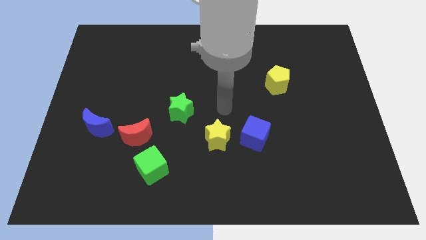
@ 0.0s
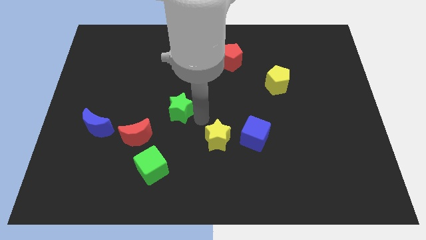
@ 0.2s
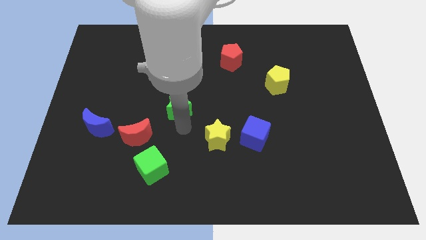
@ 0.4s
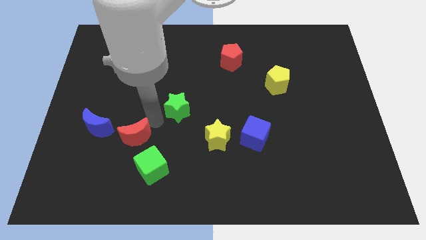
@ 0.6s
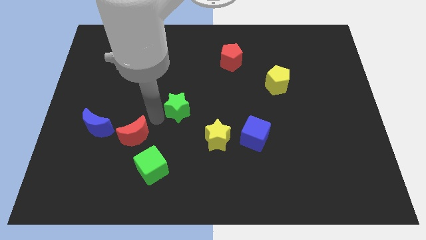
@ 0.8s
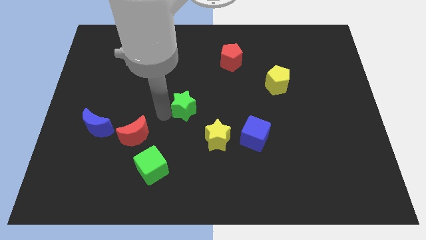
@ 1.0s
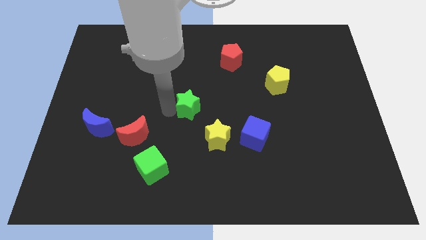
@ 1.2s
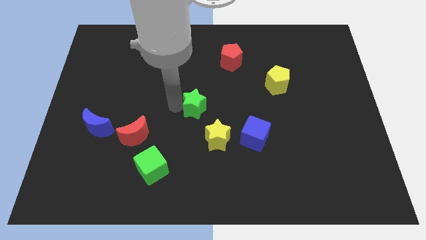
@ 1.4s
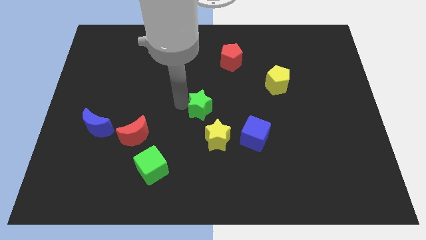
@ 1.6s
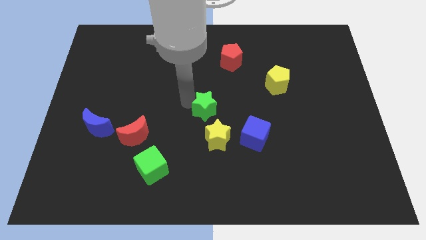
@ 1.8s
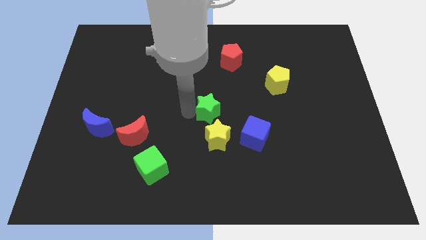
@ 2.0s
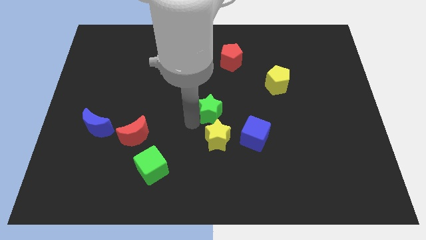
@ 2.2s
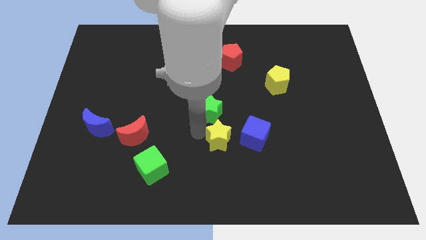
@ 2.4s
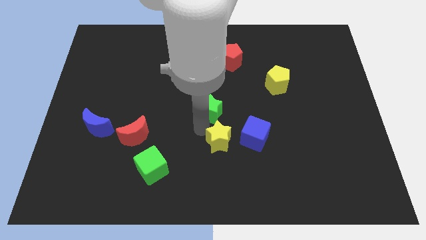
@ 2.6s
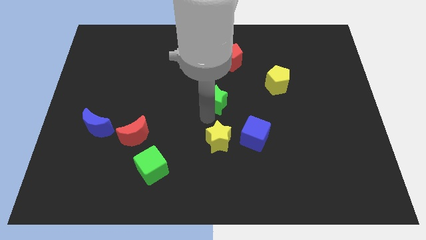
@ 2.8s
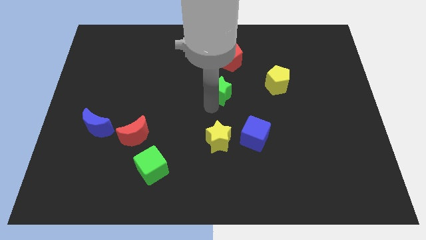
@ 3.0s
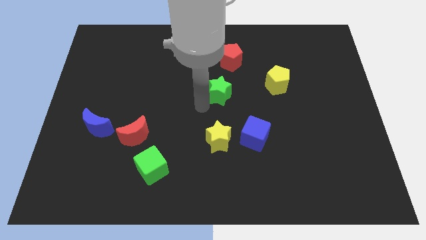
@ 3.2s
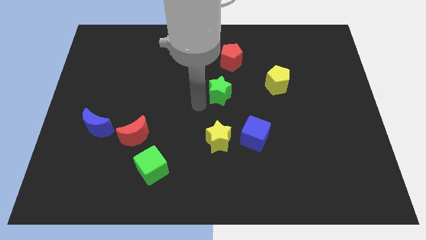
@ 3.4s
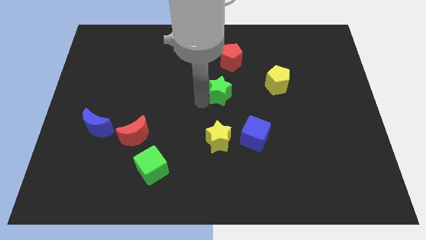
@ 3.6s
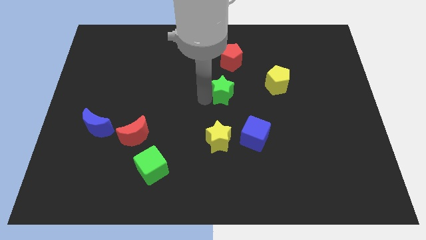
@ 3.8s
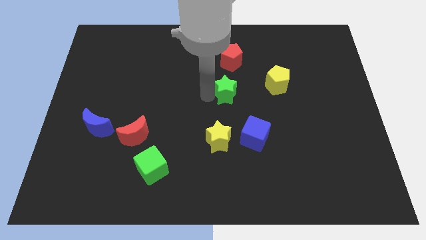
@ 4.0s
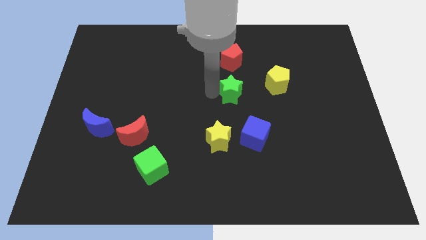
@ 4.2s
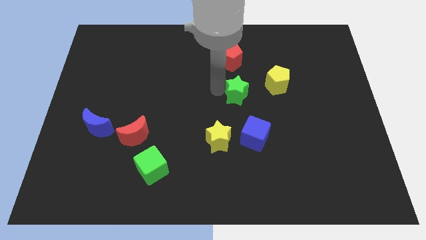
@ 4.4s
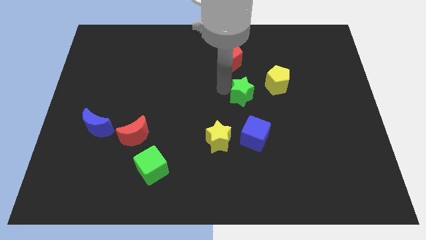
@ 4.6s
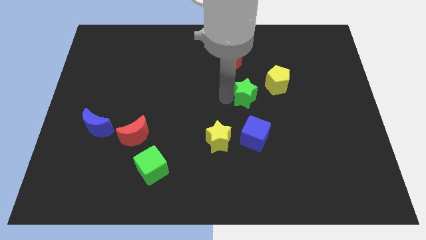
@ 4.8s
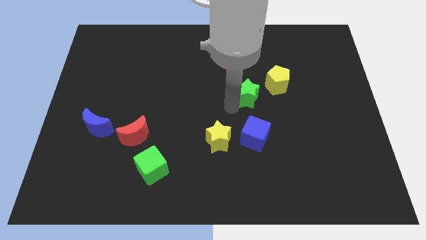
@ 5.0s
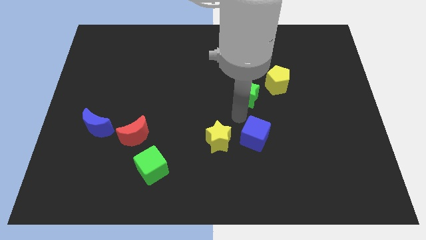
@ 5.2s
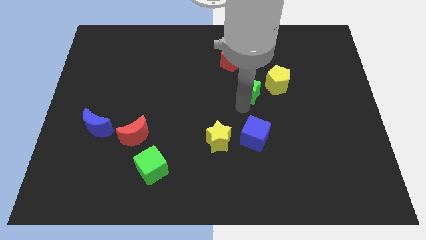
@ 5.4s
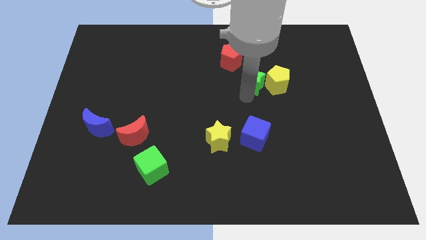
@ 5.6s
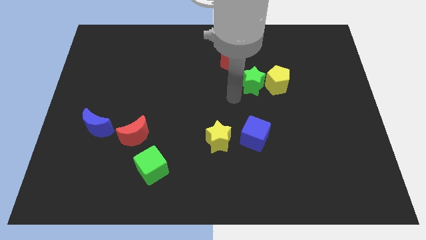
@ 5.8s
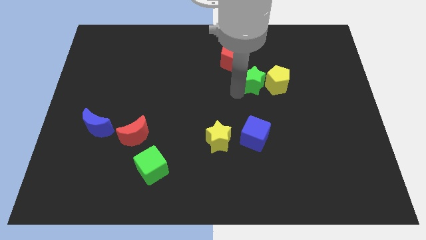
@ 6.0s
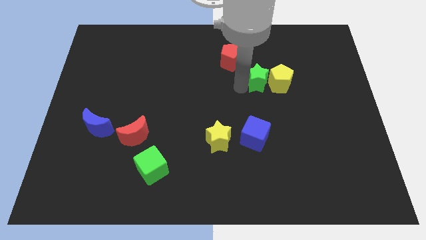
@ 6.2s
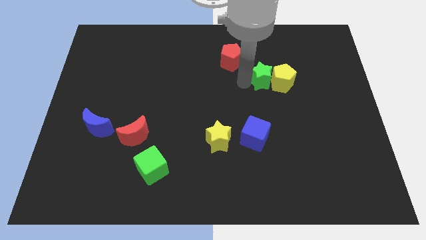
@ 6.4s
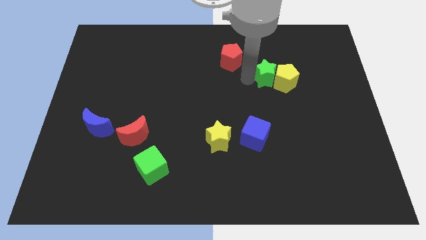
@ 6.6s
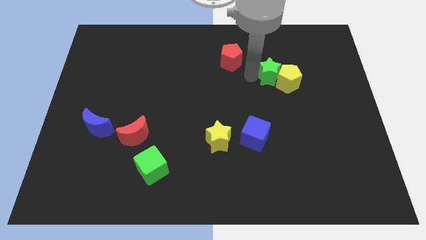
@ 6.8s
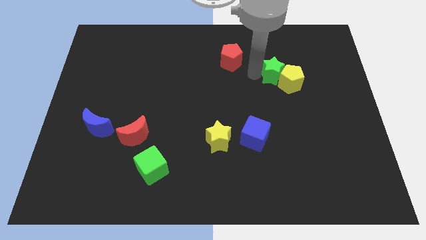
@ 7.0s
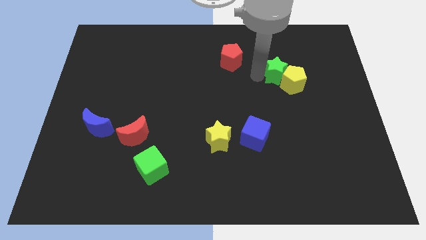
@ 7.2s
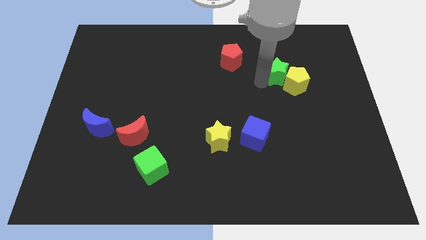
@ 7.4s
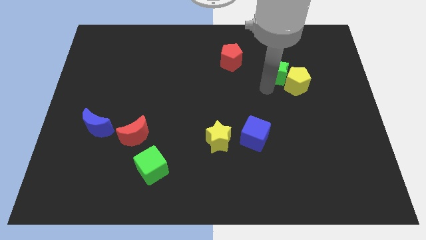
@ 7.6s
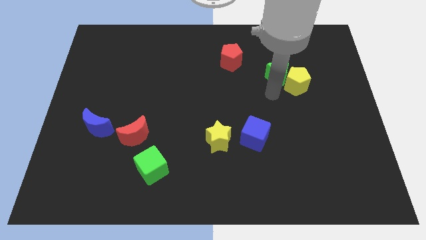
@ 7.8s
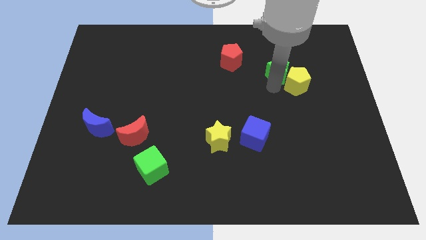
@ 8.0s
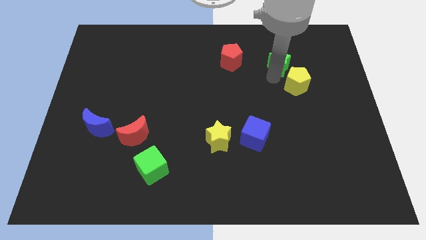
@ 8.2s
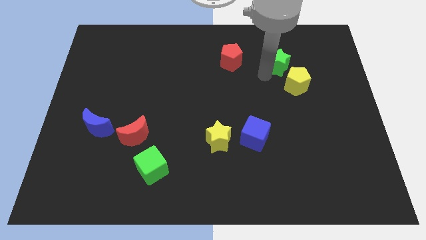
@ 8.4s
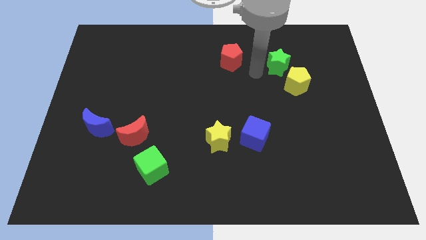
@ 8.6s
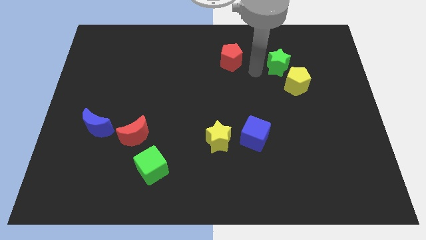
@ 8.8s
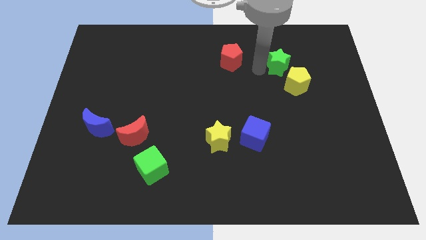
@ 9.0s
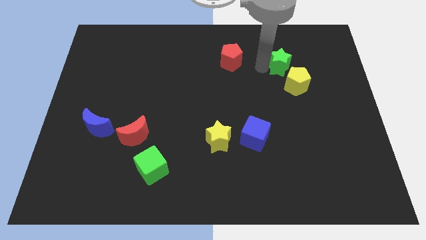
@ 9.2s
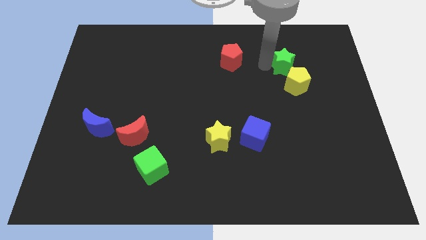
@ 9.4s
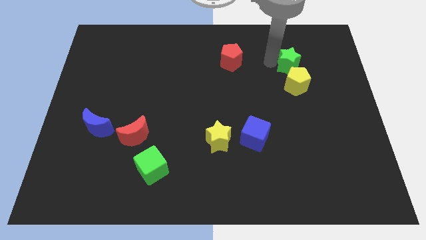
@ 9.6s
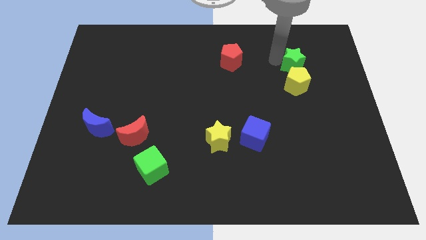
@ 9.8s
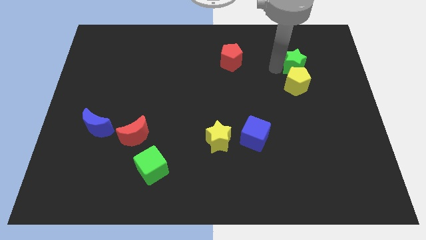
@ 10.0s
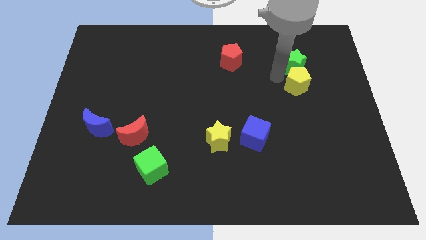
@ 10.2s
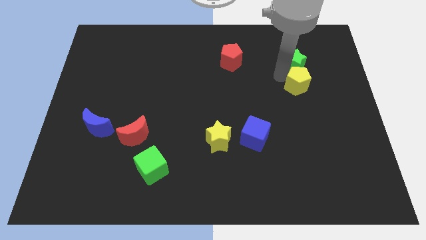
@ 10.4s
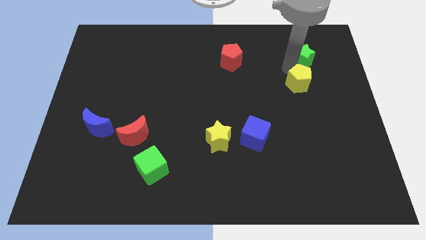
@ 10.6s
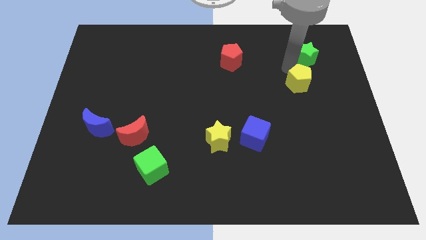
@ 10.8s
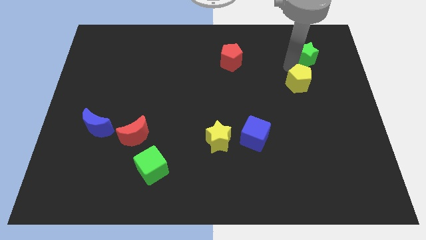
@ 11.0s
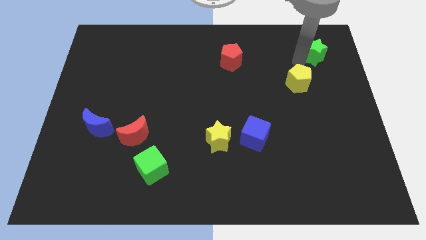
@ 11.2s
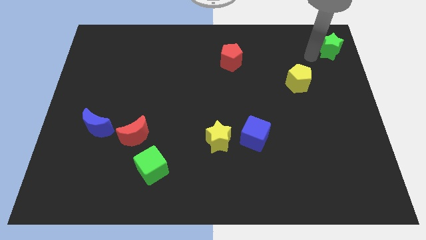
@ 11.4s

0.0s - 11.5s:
put the green star to the top right corner

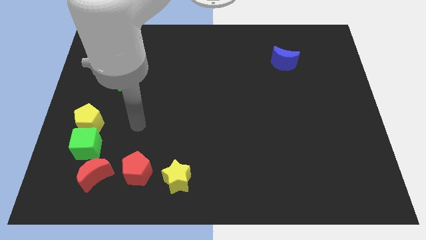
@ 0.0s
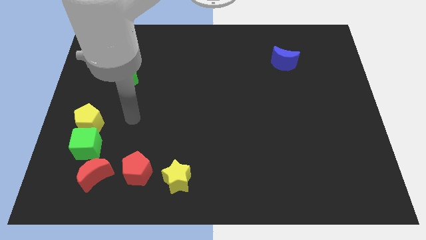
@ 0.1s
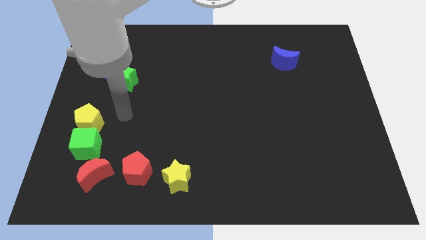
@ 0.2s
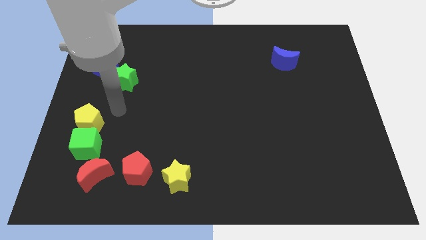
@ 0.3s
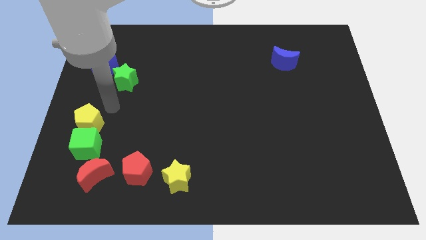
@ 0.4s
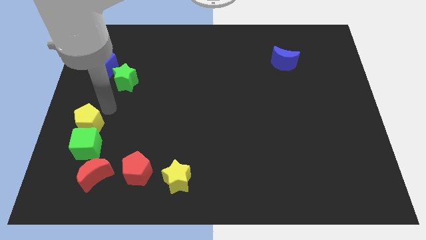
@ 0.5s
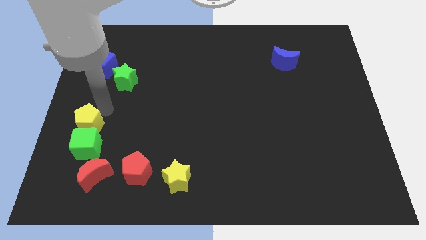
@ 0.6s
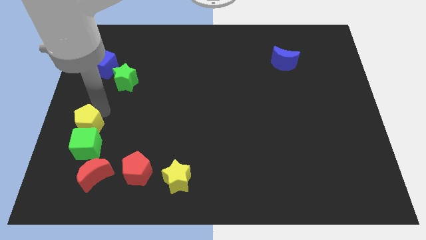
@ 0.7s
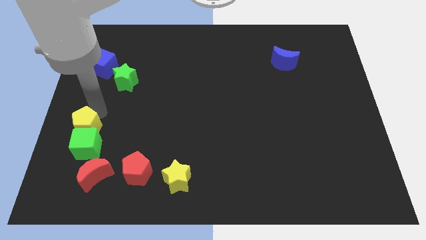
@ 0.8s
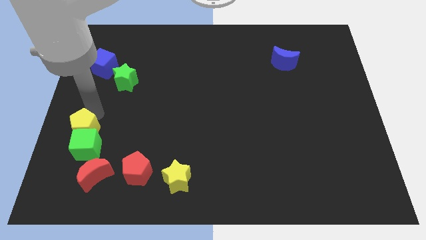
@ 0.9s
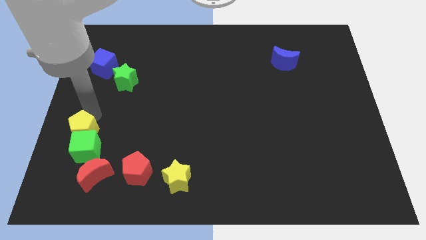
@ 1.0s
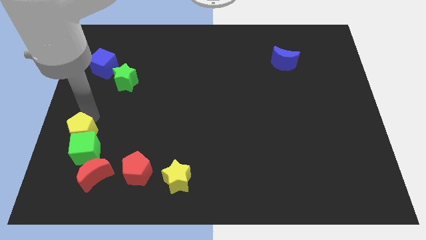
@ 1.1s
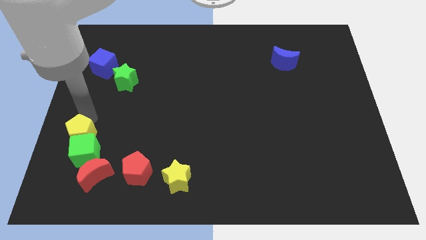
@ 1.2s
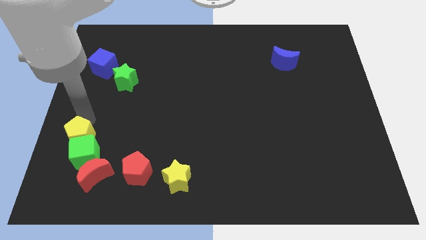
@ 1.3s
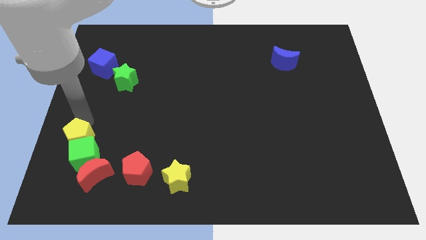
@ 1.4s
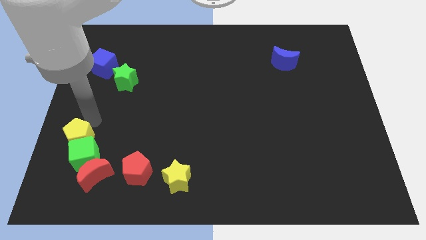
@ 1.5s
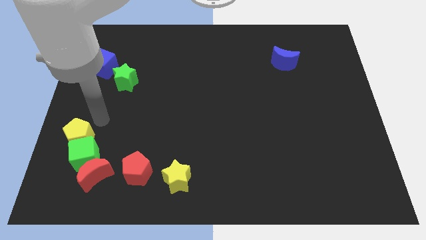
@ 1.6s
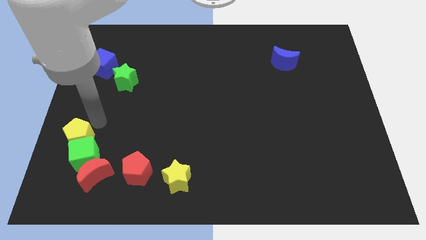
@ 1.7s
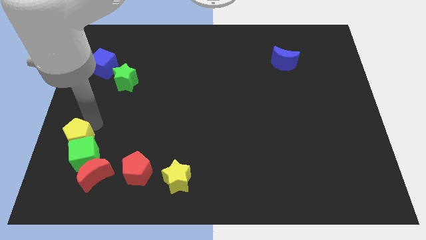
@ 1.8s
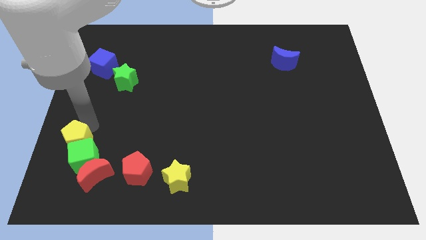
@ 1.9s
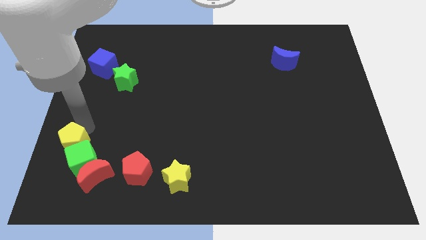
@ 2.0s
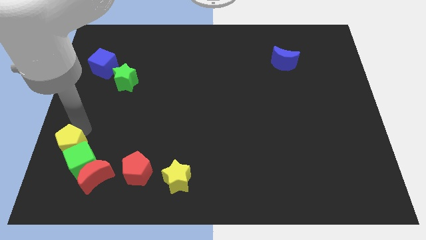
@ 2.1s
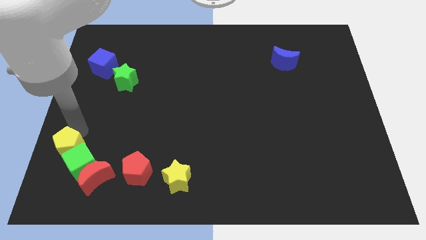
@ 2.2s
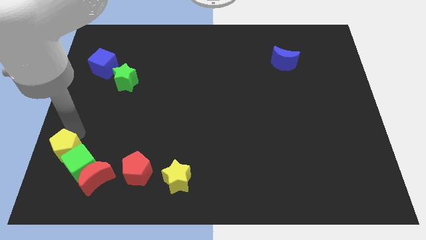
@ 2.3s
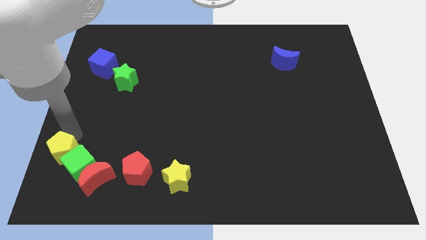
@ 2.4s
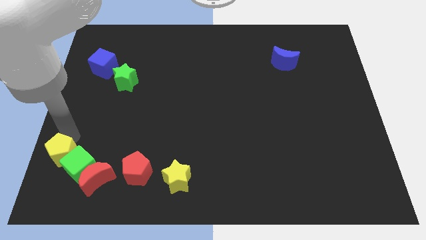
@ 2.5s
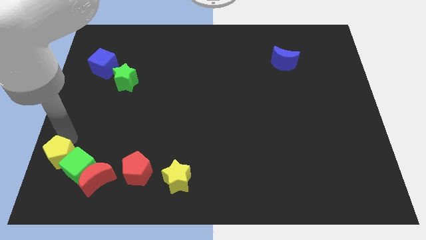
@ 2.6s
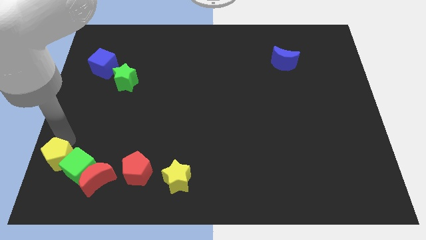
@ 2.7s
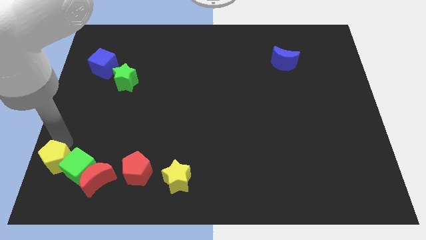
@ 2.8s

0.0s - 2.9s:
put the yellow pentagon to the bottom left corner
